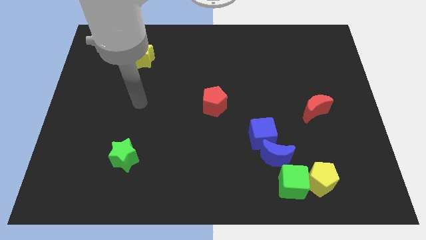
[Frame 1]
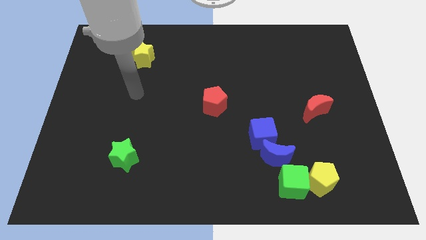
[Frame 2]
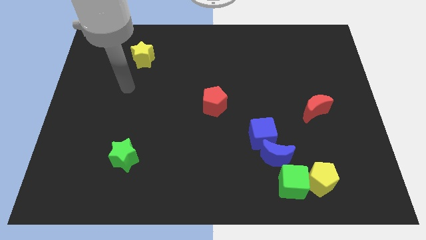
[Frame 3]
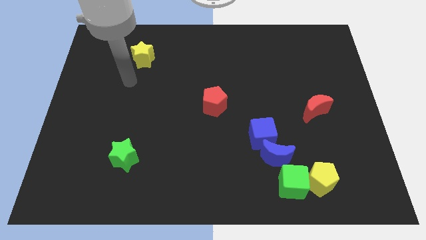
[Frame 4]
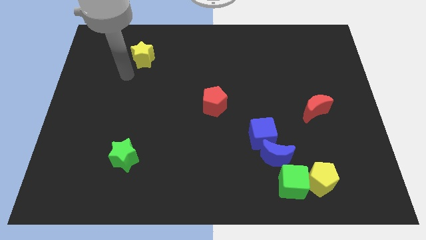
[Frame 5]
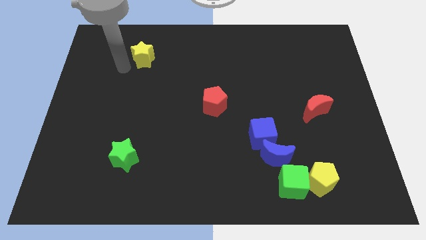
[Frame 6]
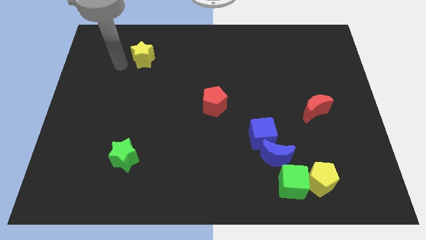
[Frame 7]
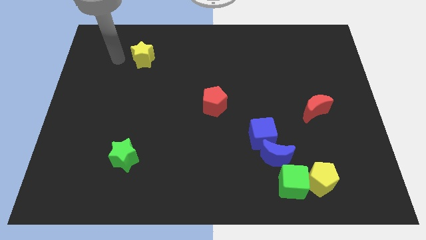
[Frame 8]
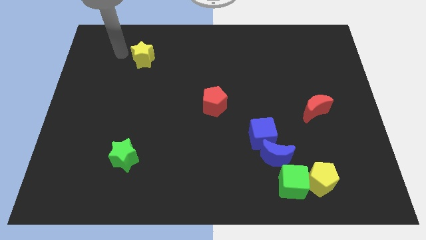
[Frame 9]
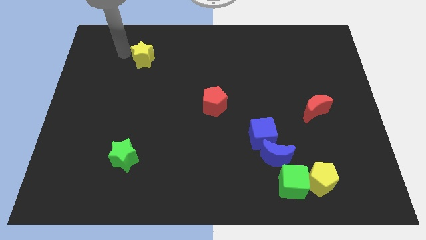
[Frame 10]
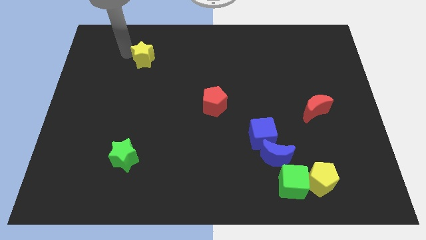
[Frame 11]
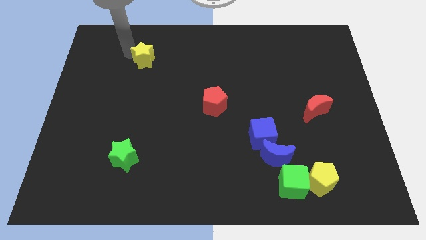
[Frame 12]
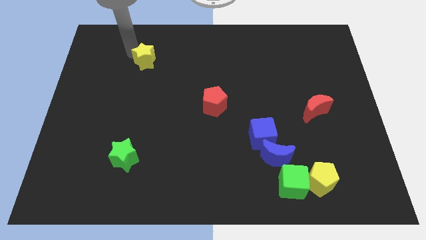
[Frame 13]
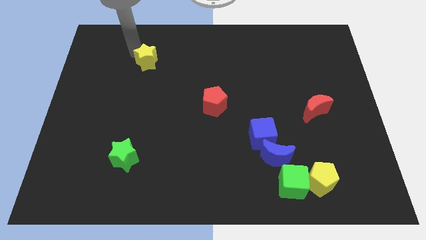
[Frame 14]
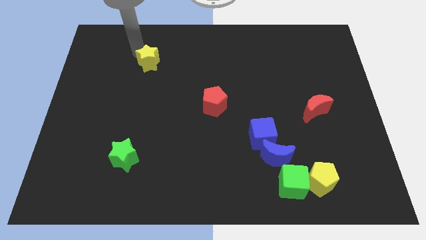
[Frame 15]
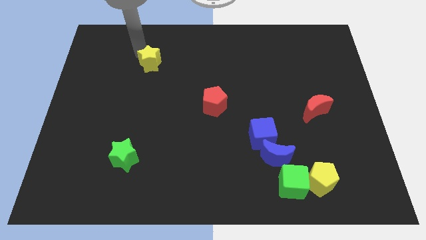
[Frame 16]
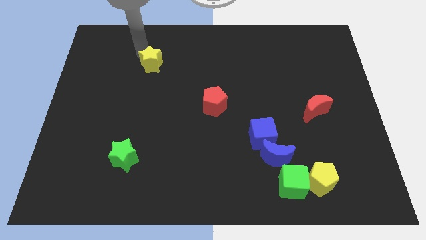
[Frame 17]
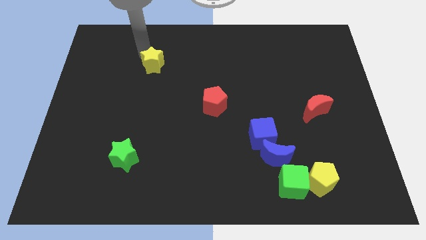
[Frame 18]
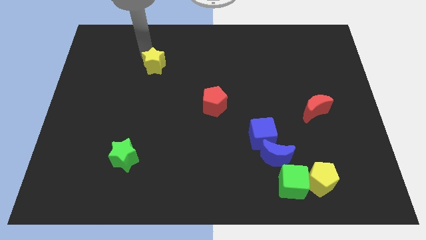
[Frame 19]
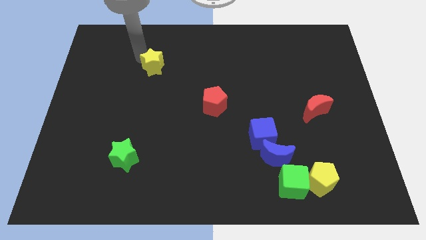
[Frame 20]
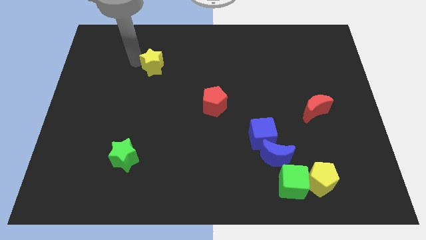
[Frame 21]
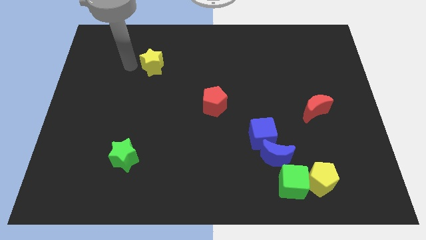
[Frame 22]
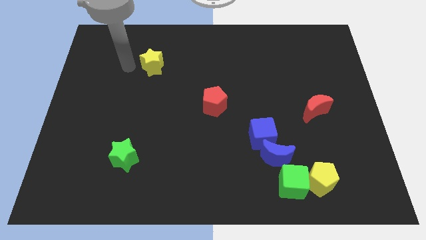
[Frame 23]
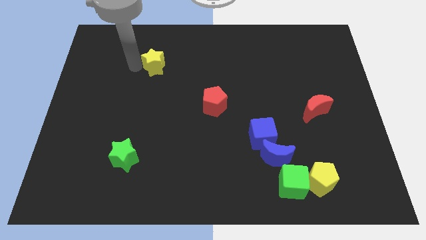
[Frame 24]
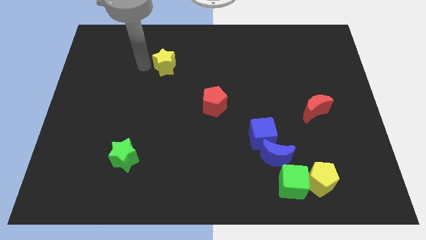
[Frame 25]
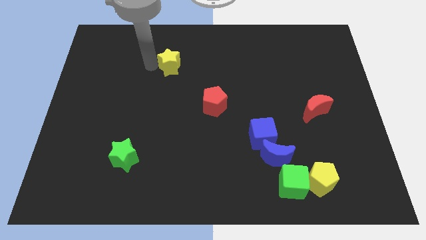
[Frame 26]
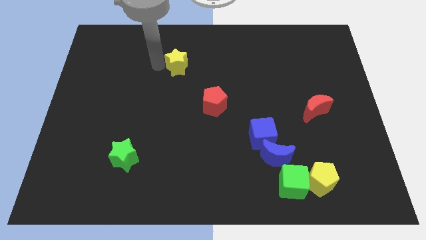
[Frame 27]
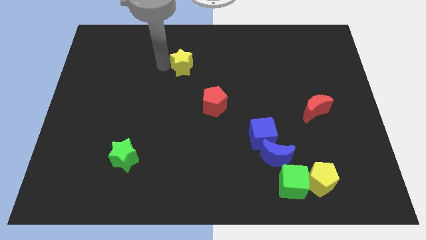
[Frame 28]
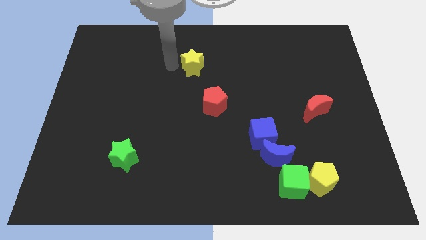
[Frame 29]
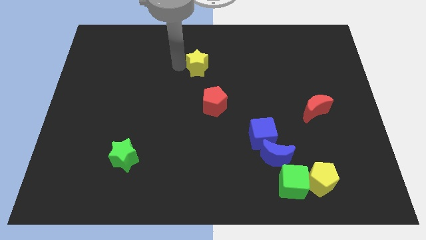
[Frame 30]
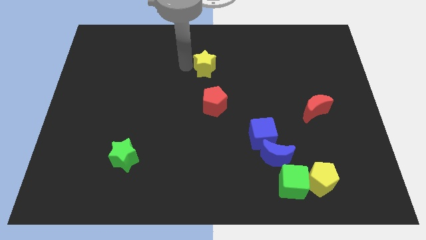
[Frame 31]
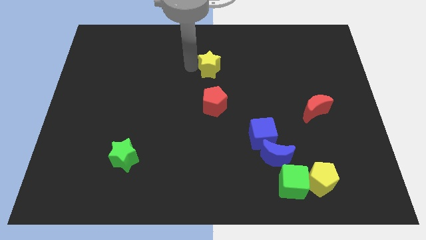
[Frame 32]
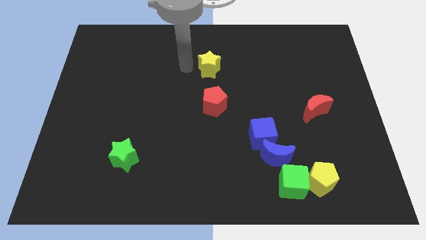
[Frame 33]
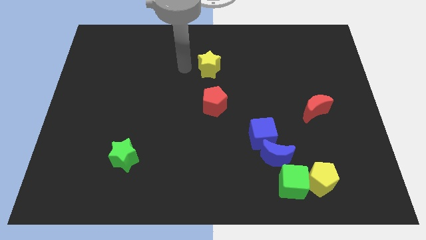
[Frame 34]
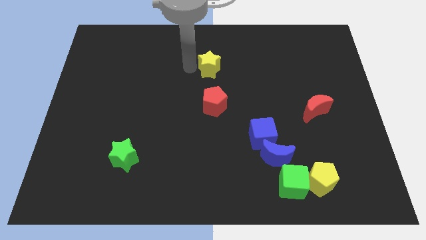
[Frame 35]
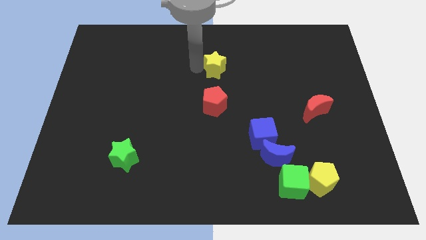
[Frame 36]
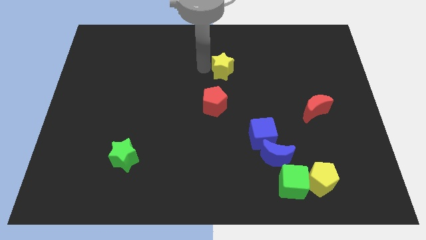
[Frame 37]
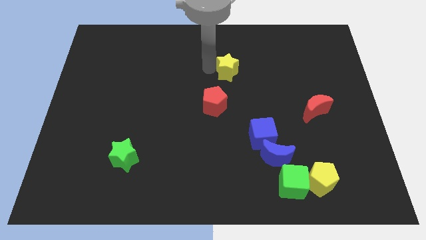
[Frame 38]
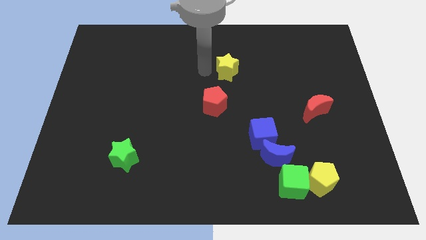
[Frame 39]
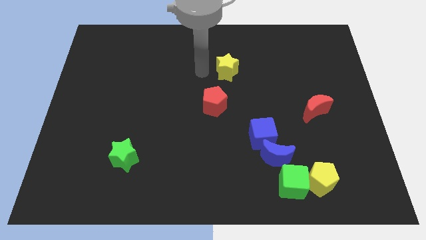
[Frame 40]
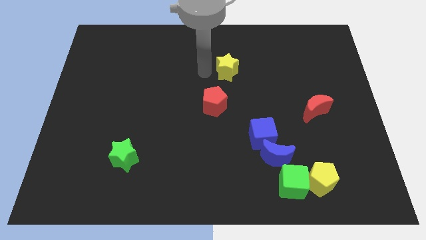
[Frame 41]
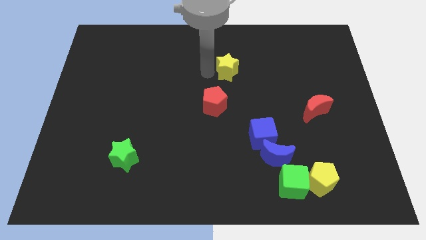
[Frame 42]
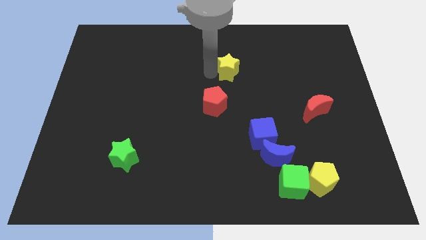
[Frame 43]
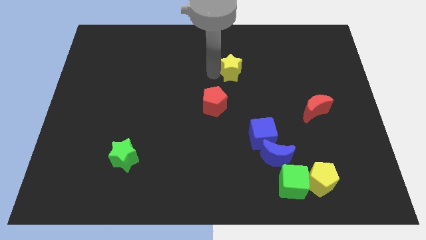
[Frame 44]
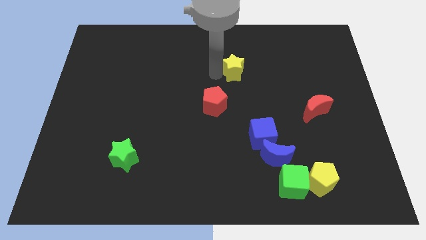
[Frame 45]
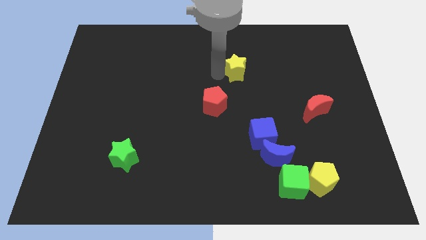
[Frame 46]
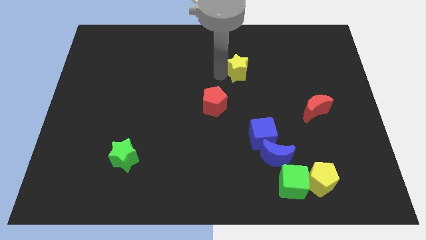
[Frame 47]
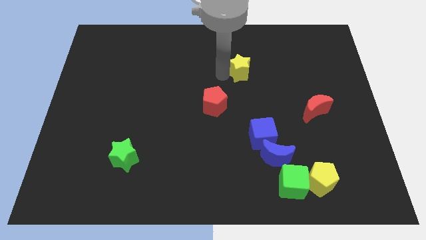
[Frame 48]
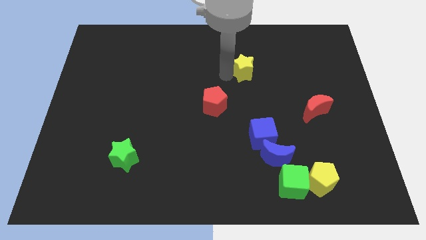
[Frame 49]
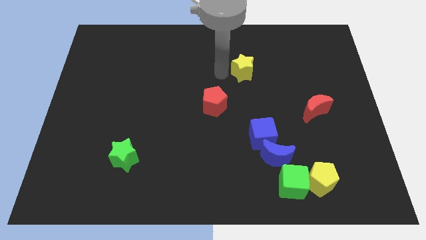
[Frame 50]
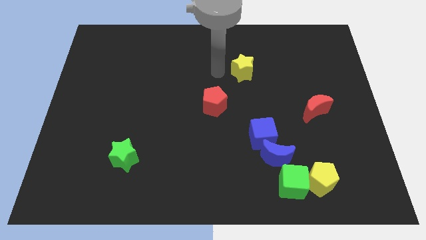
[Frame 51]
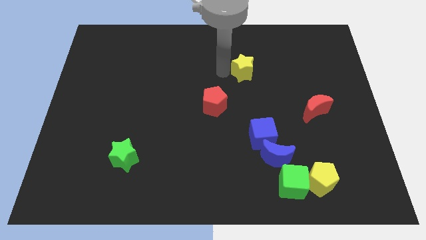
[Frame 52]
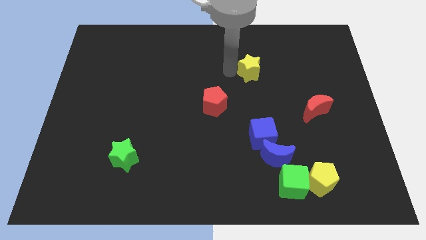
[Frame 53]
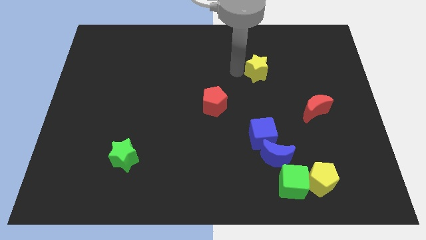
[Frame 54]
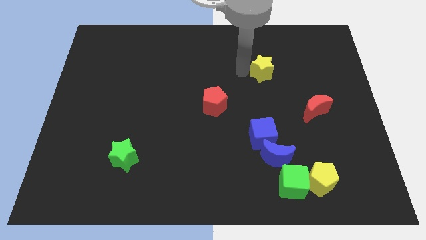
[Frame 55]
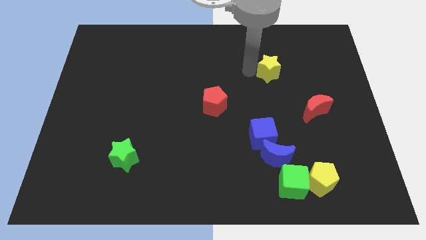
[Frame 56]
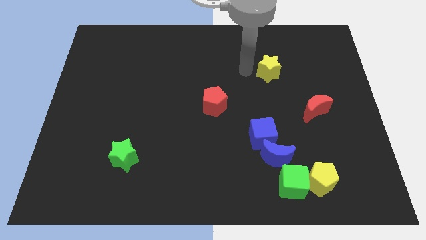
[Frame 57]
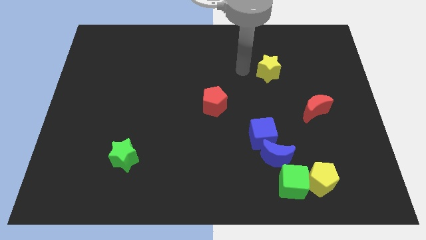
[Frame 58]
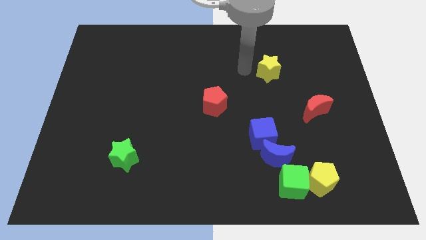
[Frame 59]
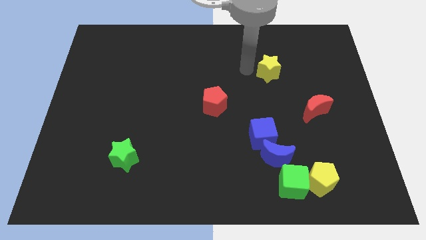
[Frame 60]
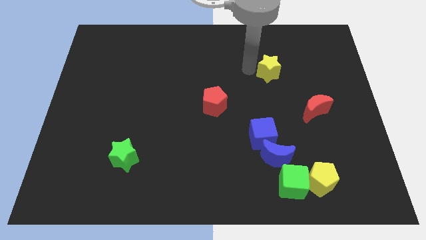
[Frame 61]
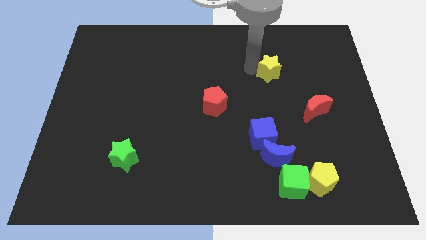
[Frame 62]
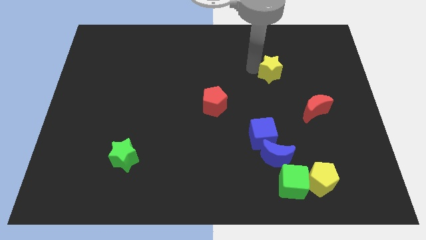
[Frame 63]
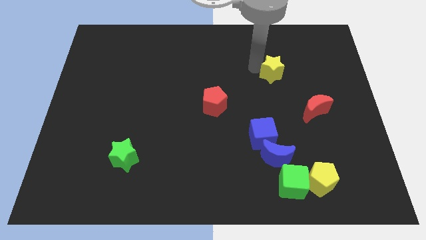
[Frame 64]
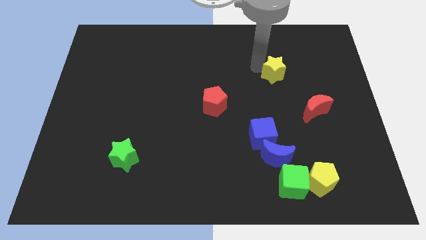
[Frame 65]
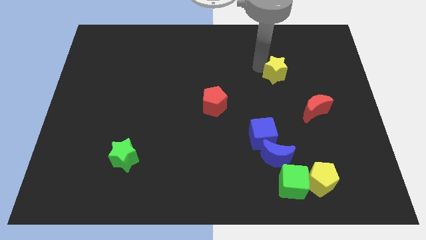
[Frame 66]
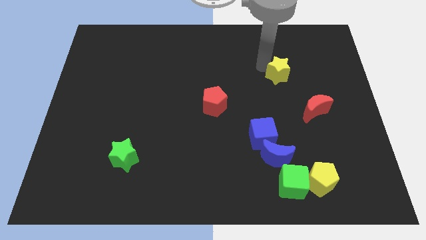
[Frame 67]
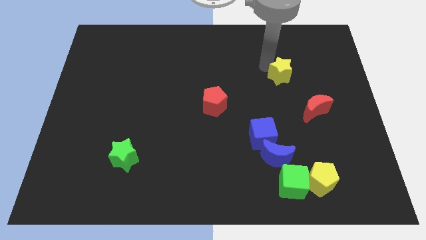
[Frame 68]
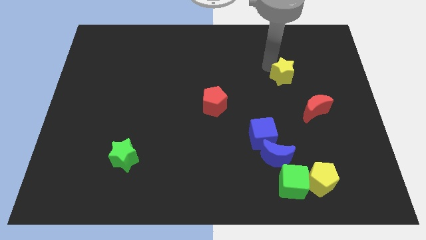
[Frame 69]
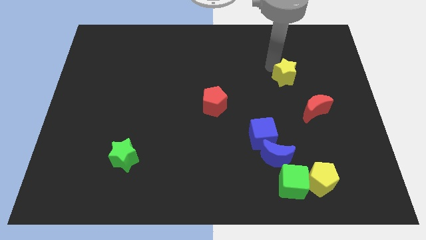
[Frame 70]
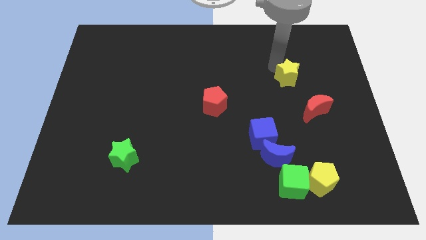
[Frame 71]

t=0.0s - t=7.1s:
move the yellow star to the top side of the red moon

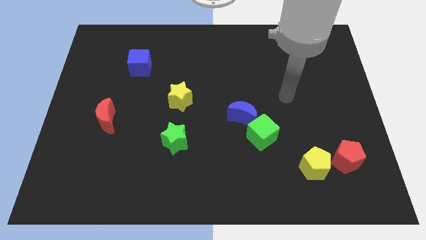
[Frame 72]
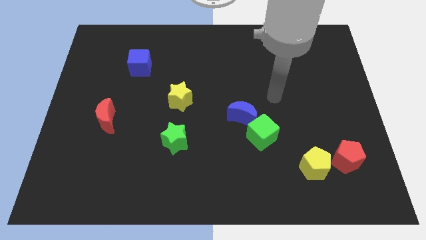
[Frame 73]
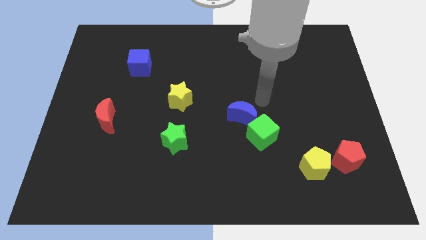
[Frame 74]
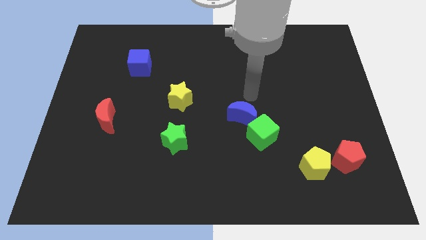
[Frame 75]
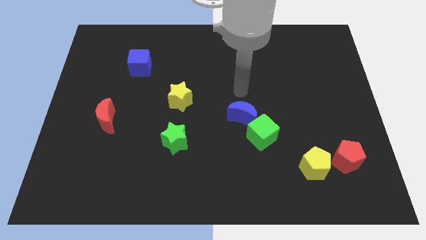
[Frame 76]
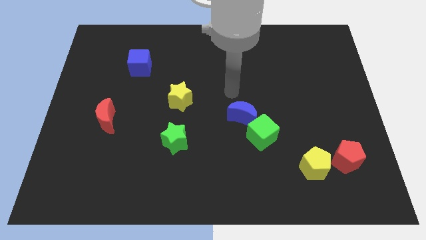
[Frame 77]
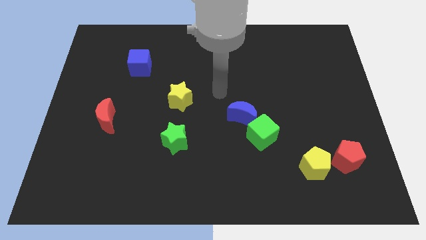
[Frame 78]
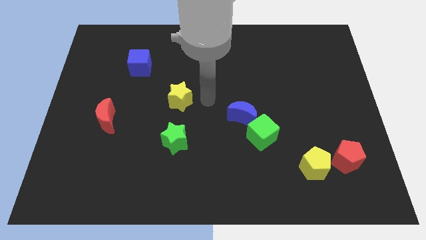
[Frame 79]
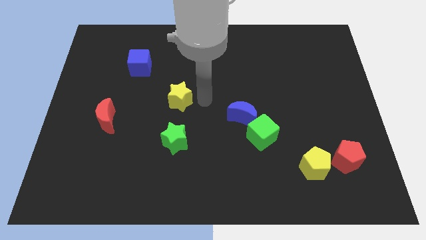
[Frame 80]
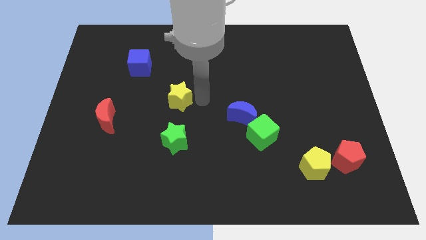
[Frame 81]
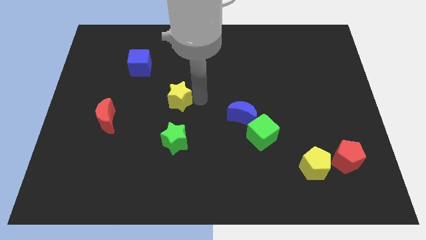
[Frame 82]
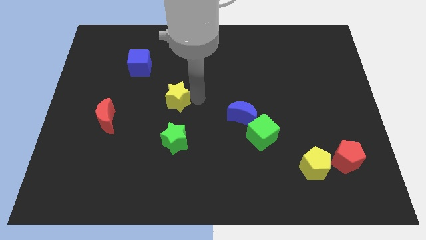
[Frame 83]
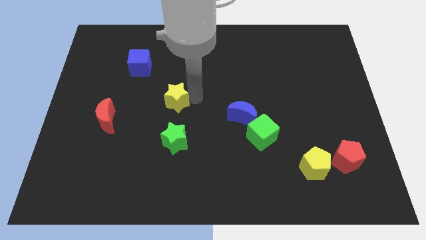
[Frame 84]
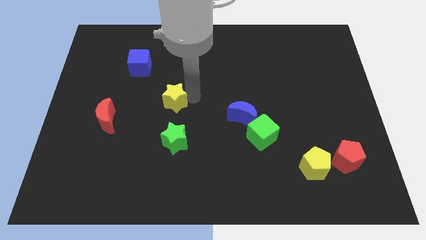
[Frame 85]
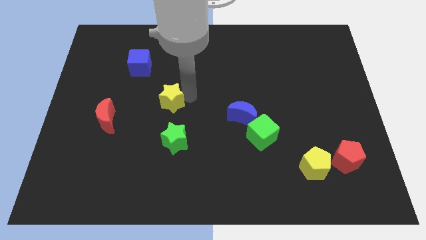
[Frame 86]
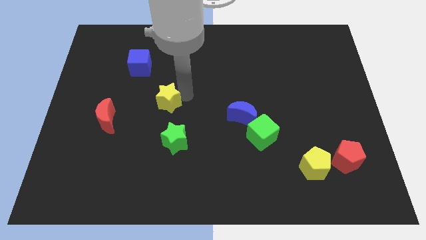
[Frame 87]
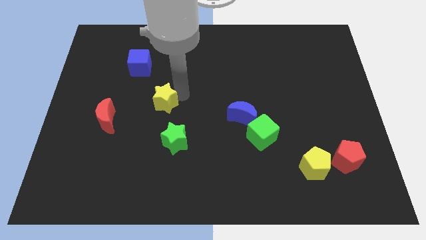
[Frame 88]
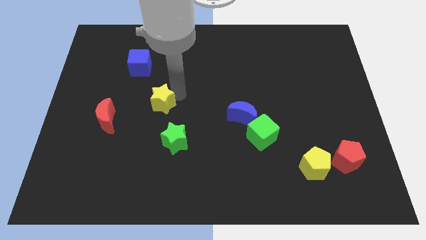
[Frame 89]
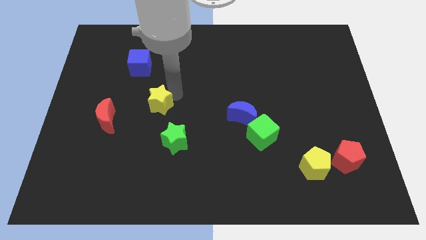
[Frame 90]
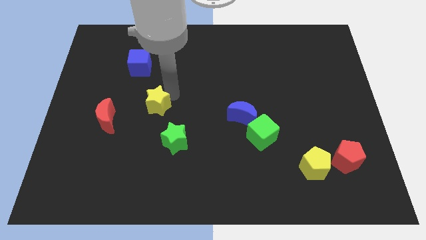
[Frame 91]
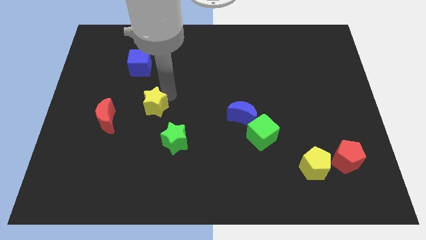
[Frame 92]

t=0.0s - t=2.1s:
move the yellow star to the bottom of the blue cube
